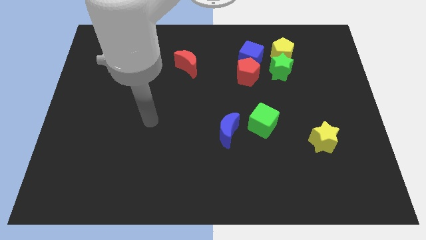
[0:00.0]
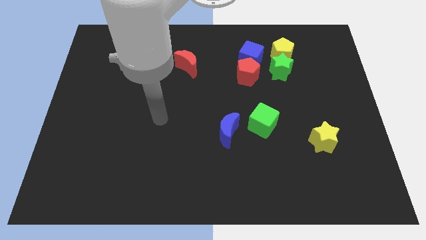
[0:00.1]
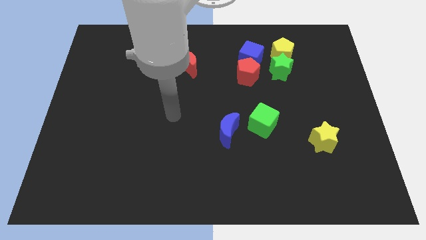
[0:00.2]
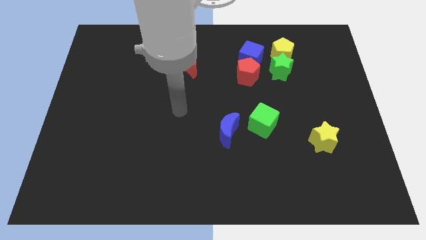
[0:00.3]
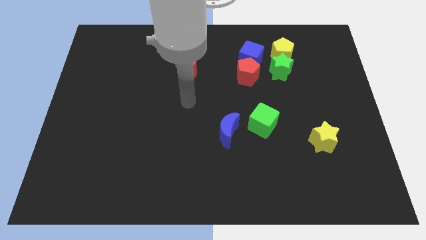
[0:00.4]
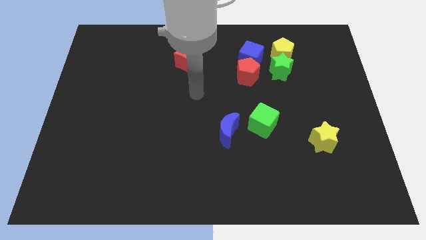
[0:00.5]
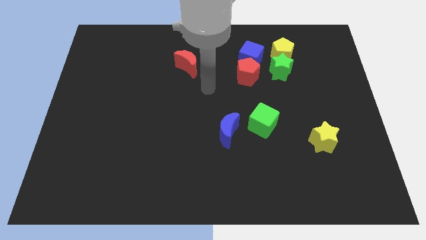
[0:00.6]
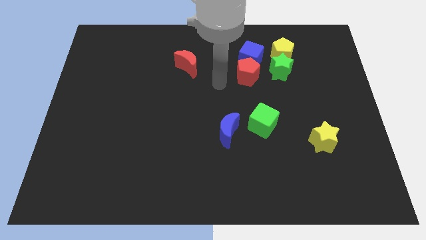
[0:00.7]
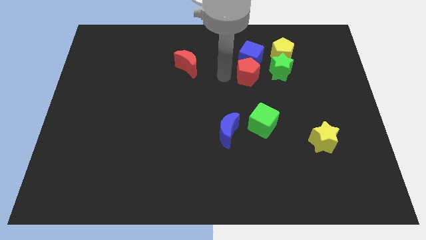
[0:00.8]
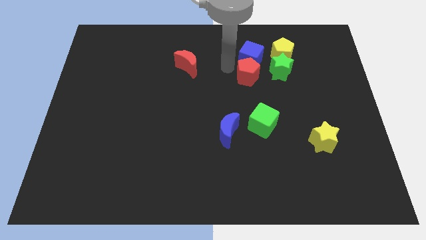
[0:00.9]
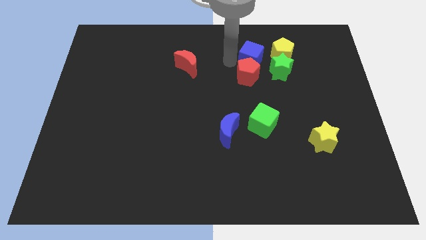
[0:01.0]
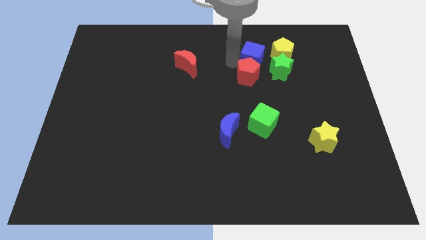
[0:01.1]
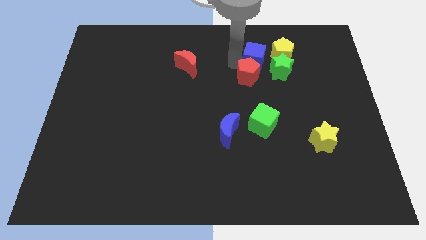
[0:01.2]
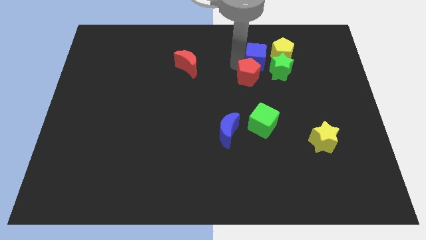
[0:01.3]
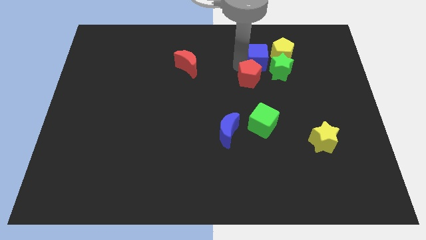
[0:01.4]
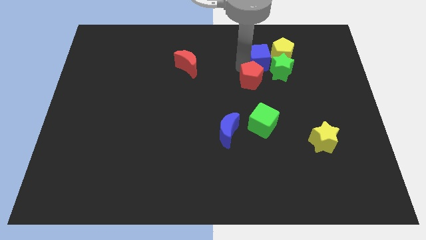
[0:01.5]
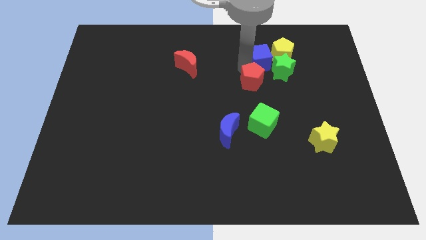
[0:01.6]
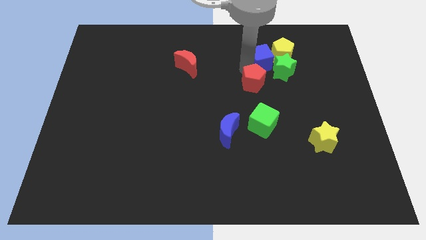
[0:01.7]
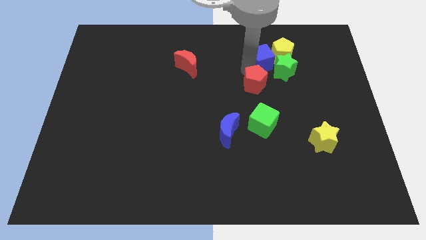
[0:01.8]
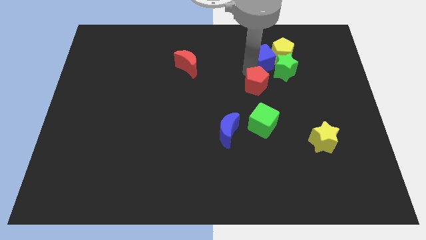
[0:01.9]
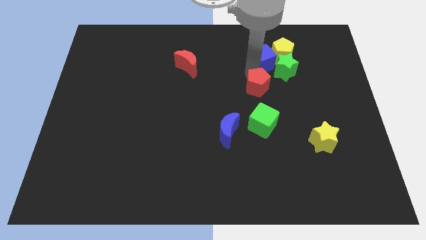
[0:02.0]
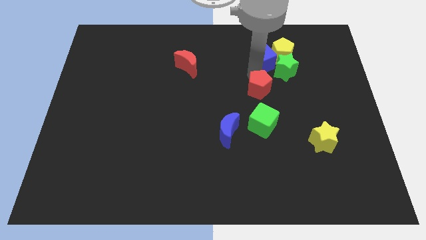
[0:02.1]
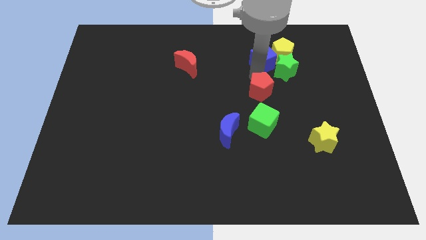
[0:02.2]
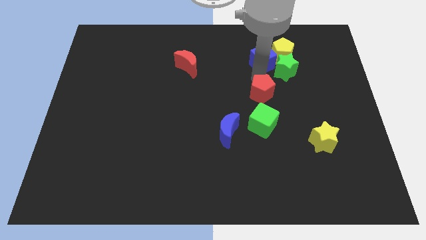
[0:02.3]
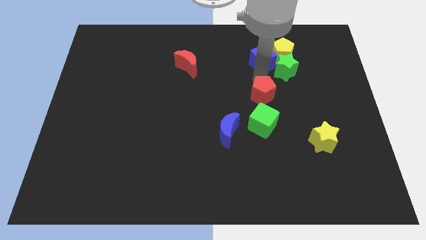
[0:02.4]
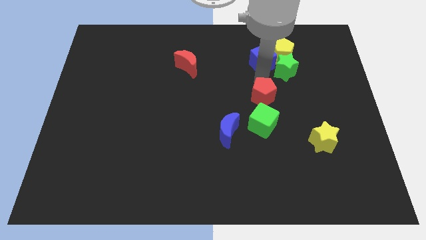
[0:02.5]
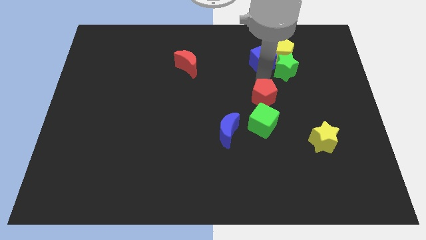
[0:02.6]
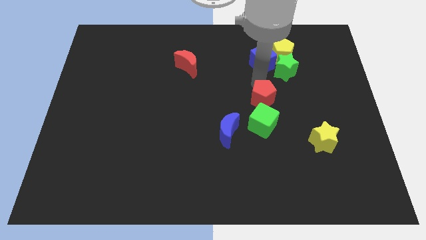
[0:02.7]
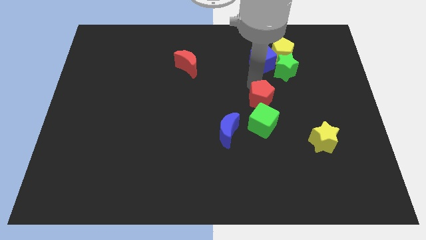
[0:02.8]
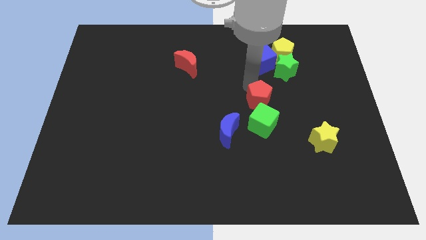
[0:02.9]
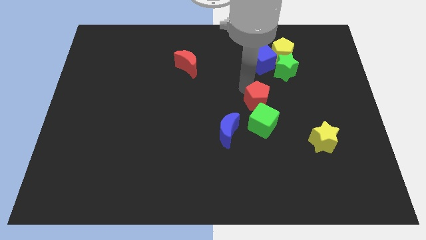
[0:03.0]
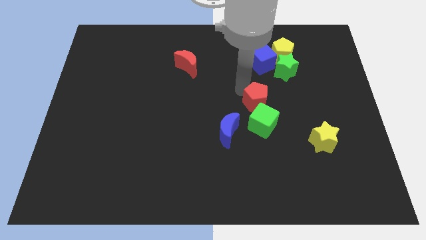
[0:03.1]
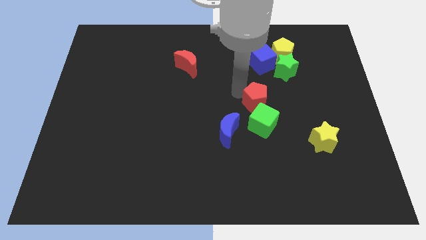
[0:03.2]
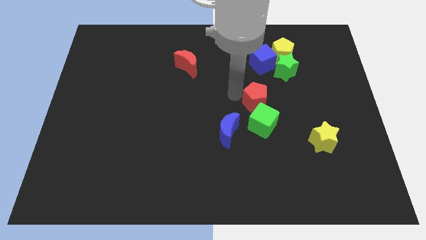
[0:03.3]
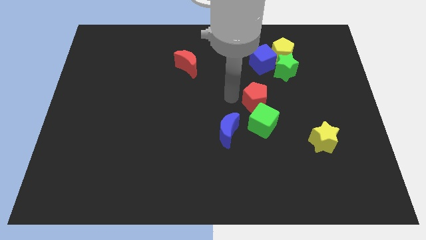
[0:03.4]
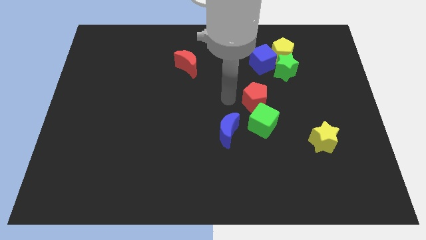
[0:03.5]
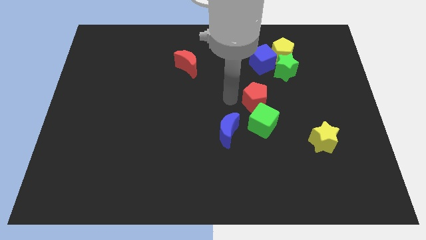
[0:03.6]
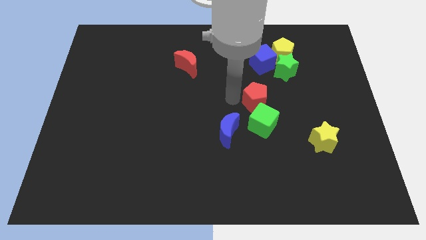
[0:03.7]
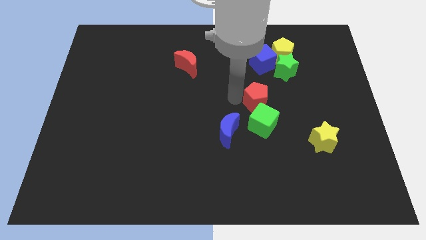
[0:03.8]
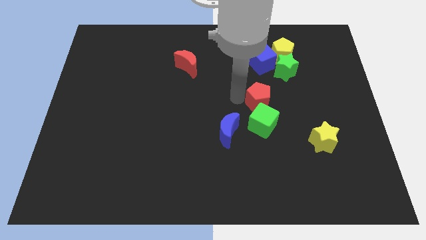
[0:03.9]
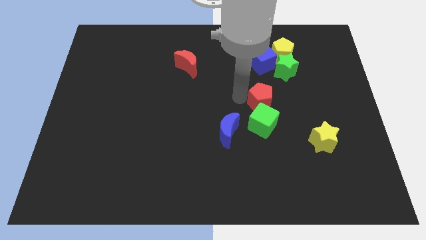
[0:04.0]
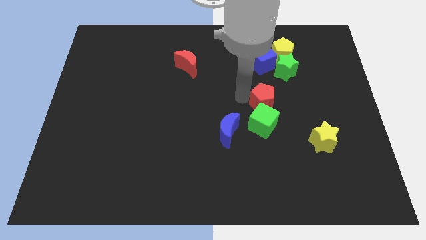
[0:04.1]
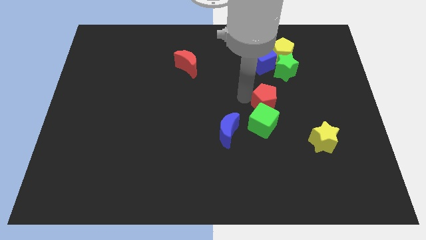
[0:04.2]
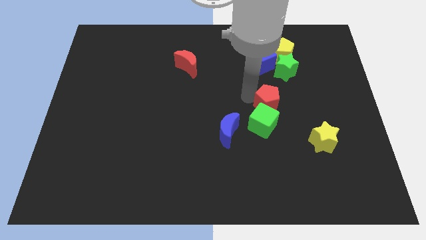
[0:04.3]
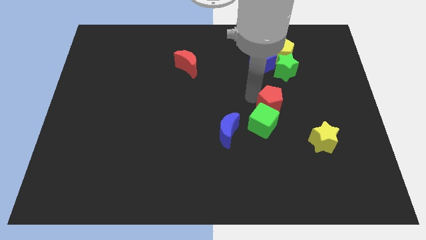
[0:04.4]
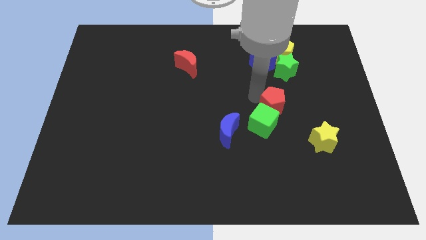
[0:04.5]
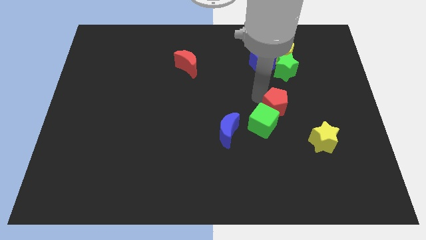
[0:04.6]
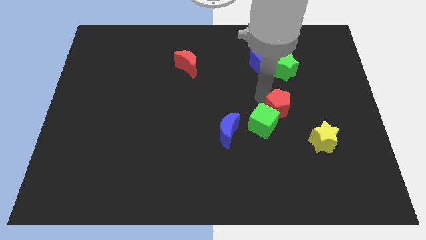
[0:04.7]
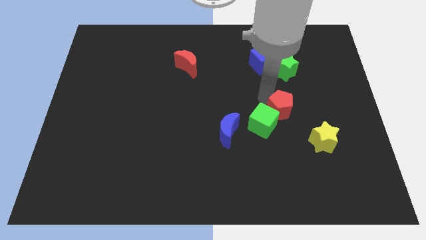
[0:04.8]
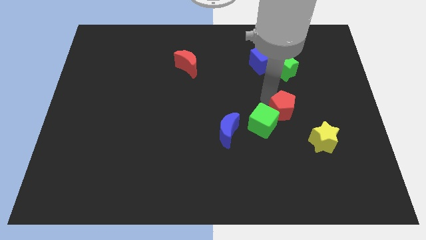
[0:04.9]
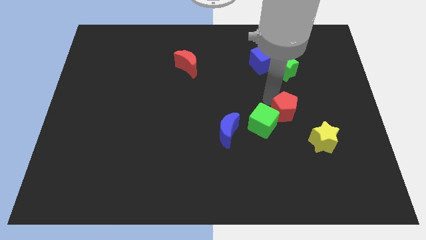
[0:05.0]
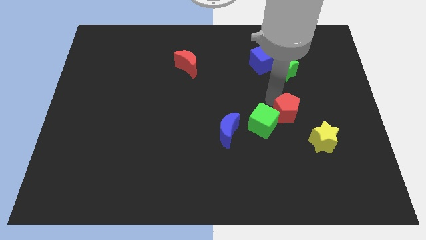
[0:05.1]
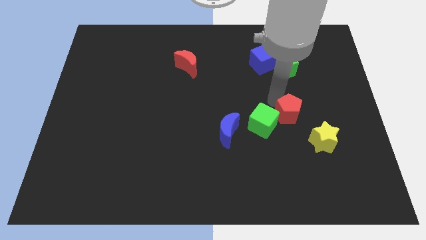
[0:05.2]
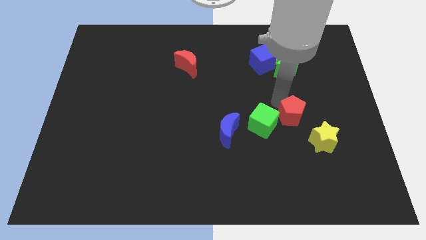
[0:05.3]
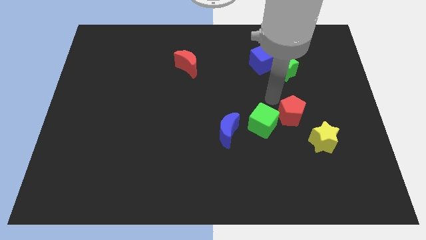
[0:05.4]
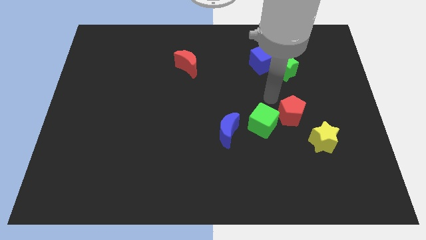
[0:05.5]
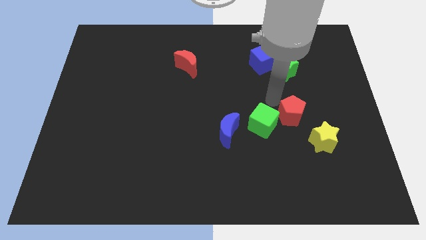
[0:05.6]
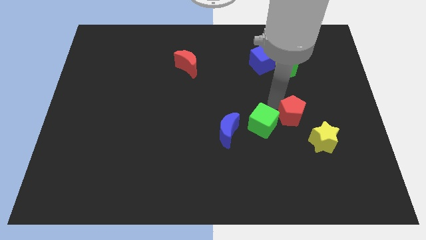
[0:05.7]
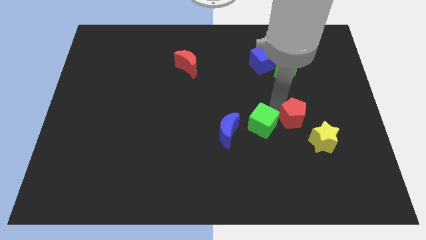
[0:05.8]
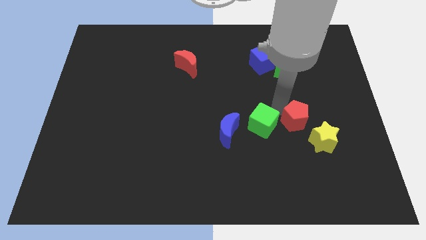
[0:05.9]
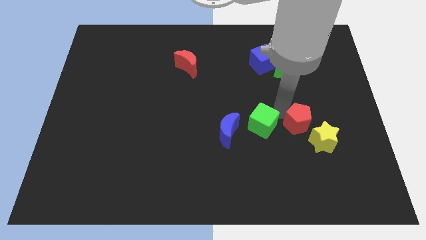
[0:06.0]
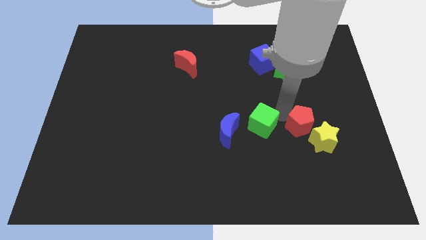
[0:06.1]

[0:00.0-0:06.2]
move the red pentagon next to the yellow star

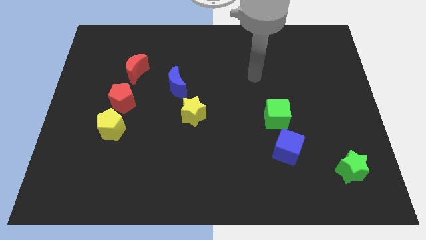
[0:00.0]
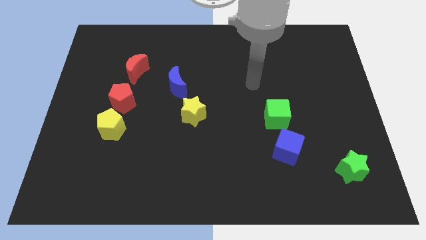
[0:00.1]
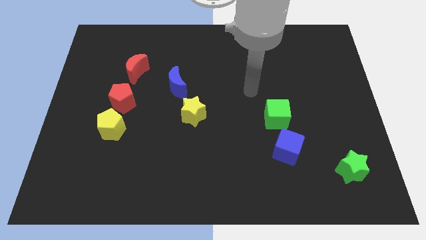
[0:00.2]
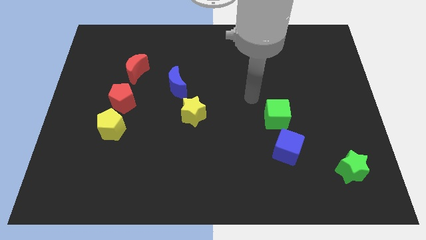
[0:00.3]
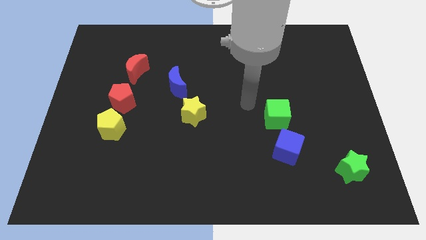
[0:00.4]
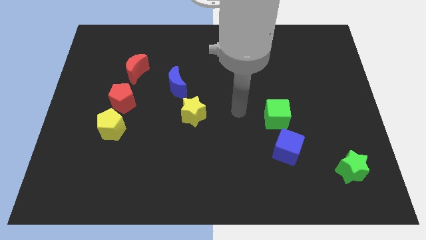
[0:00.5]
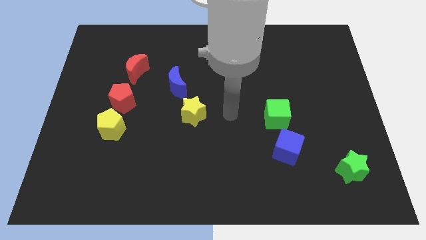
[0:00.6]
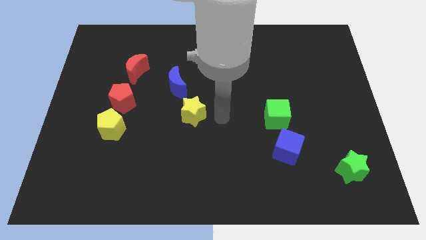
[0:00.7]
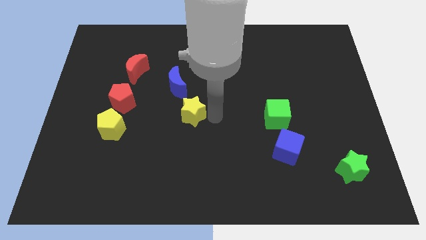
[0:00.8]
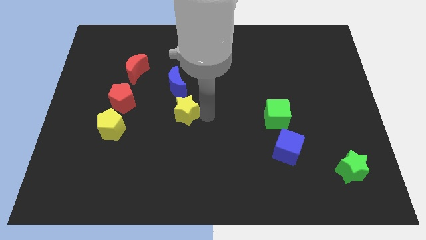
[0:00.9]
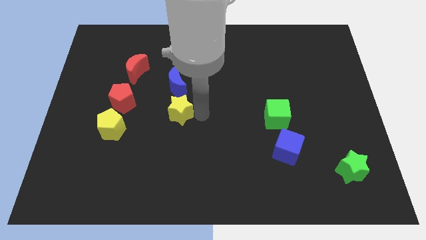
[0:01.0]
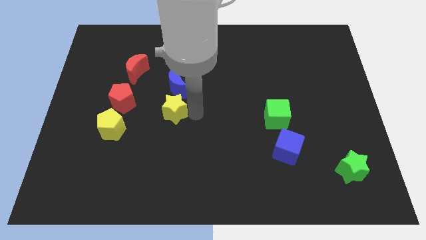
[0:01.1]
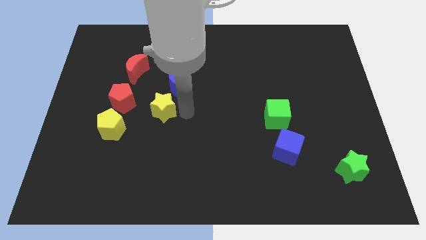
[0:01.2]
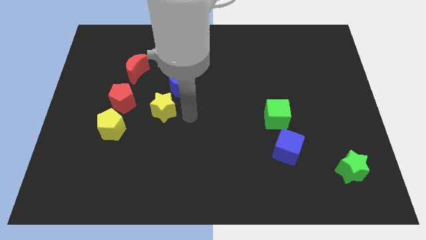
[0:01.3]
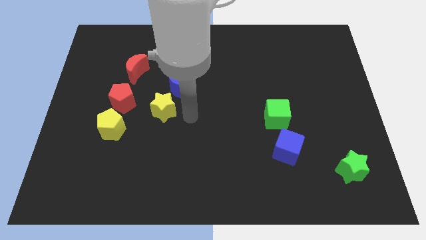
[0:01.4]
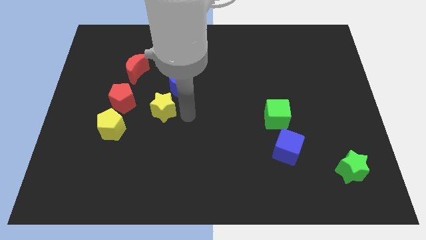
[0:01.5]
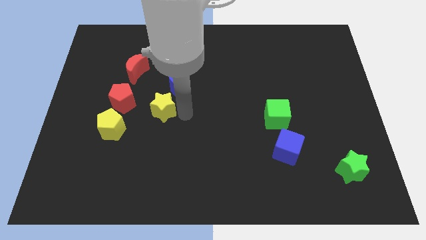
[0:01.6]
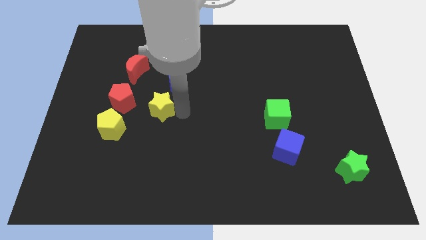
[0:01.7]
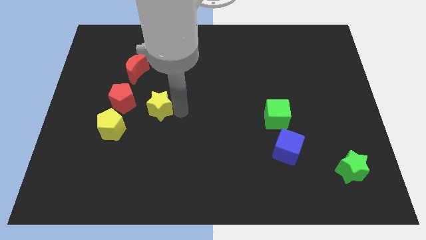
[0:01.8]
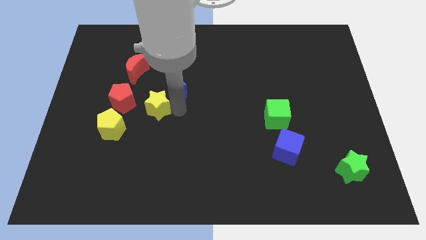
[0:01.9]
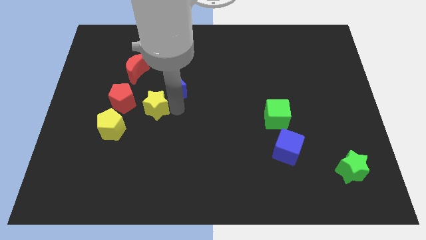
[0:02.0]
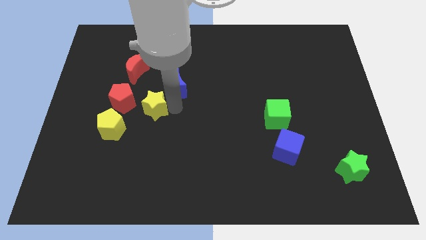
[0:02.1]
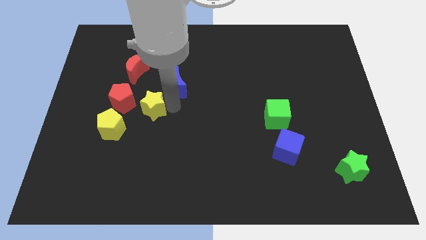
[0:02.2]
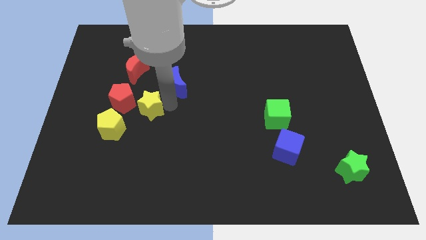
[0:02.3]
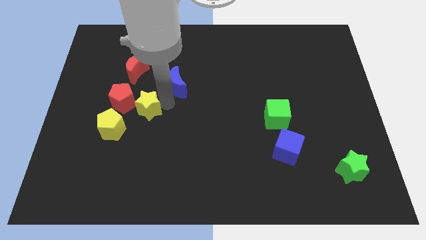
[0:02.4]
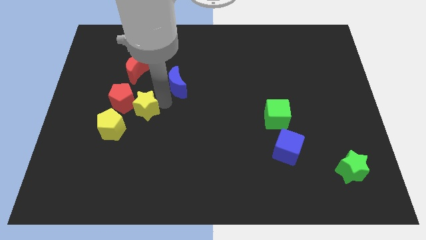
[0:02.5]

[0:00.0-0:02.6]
slide the yellow star close to the red pentagon
